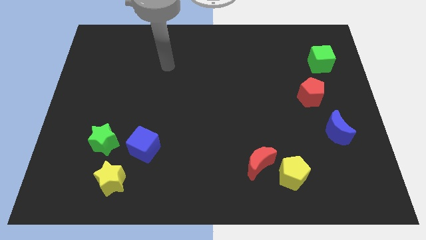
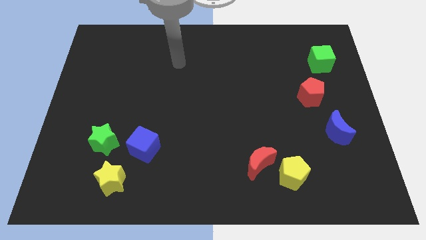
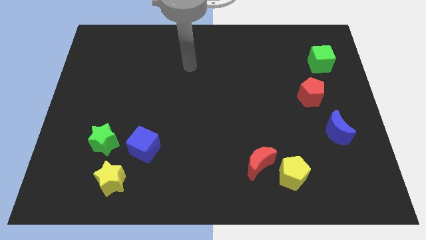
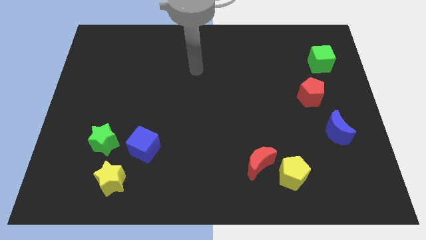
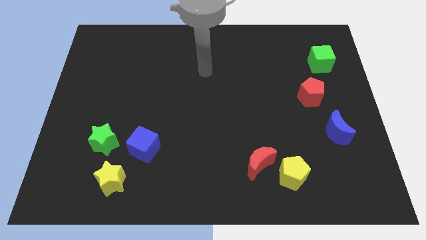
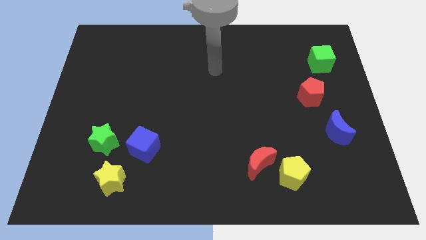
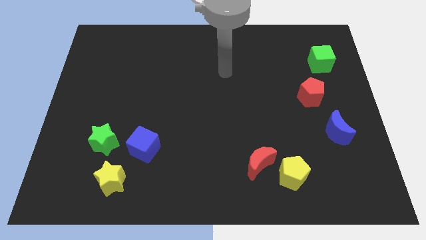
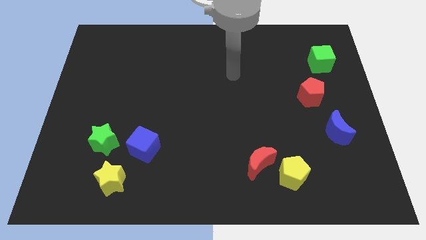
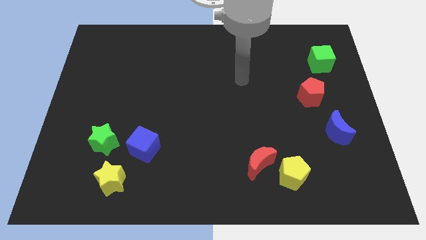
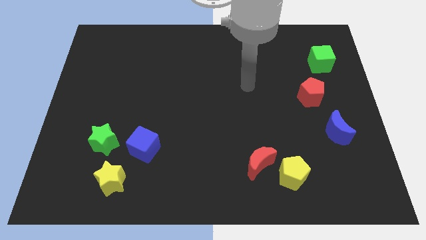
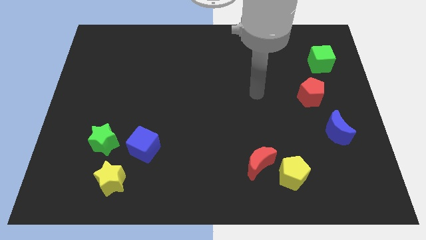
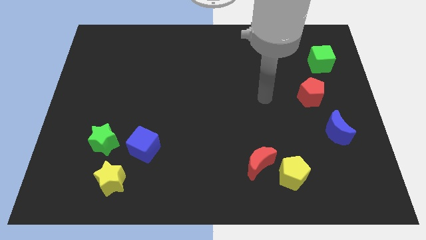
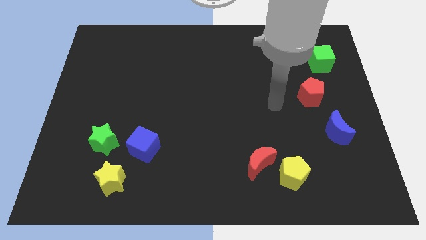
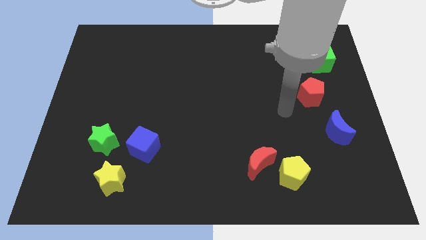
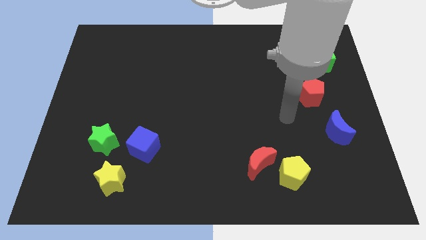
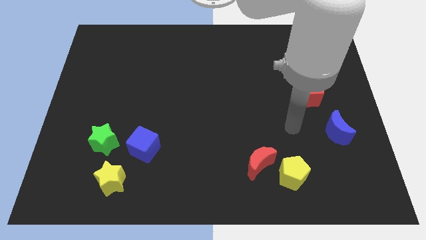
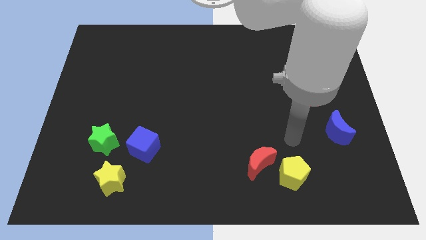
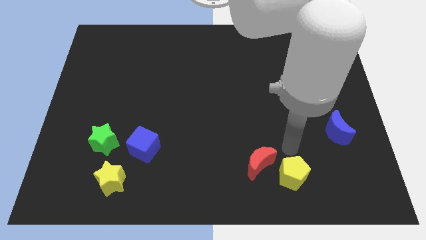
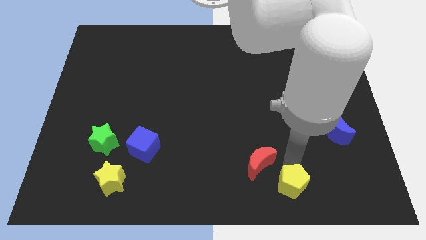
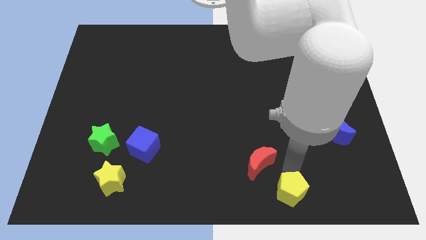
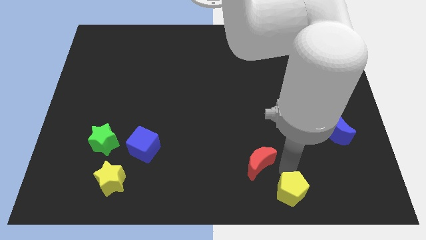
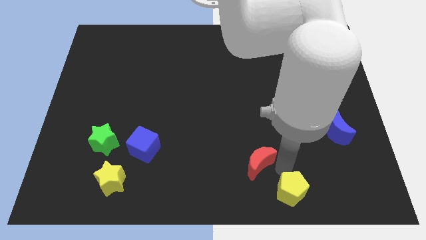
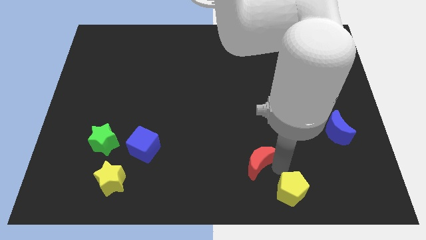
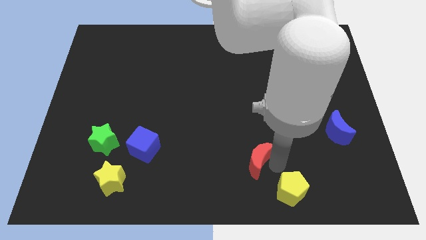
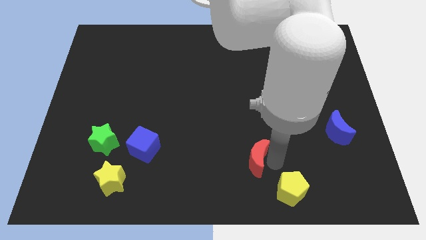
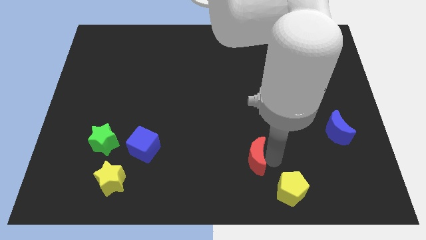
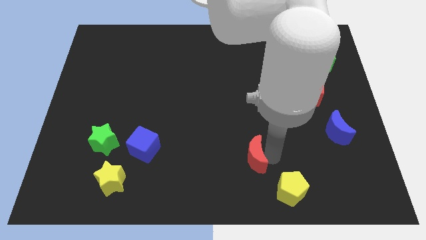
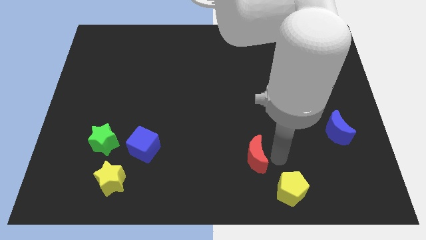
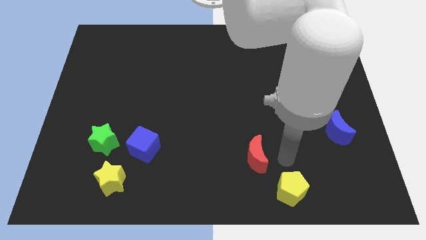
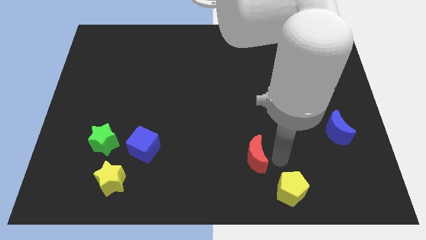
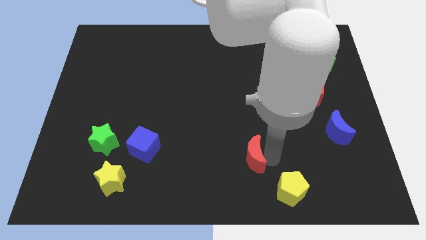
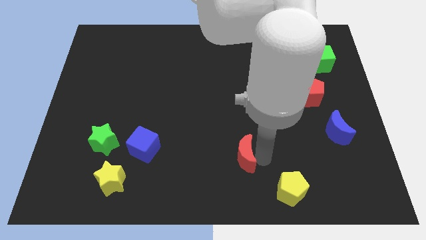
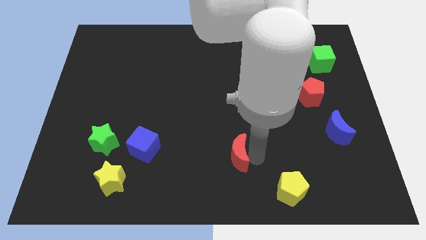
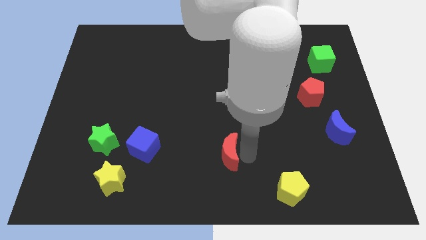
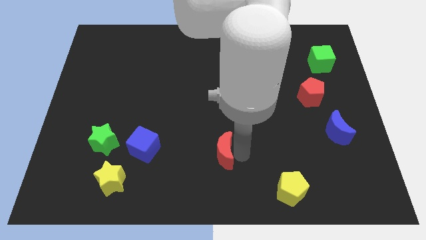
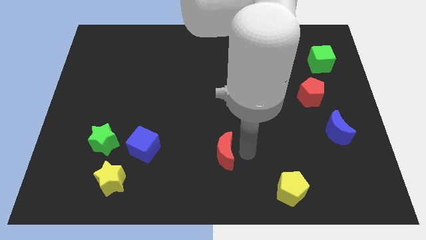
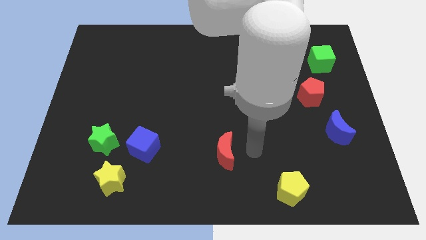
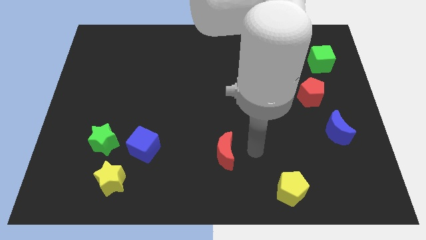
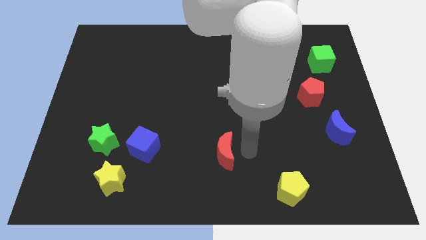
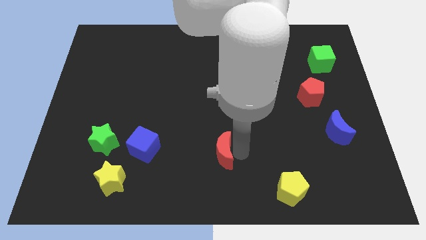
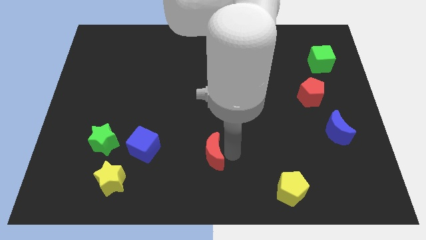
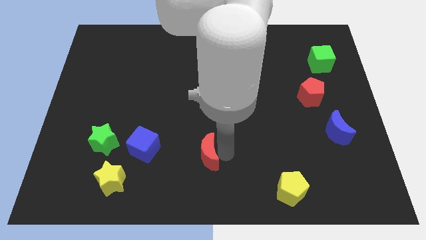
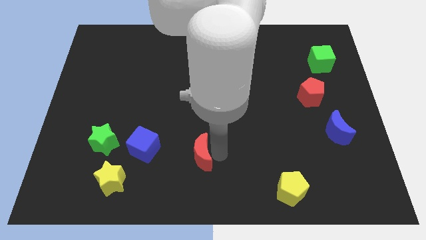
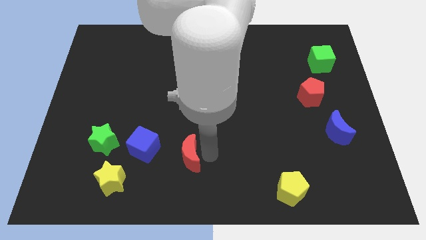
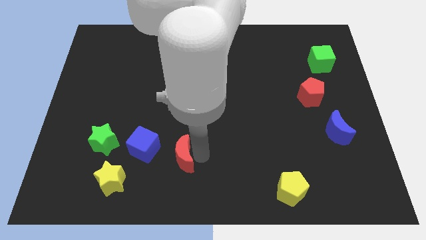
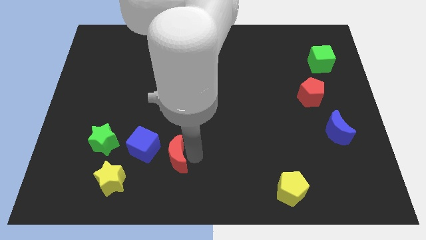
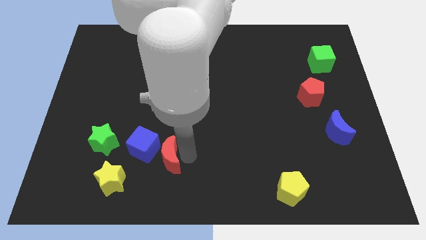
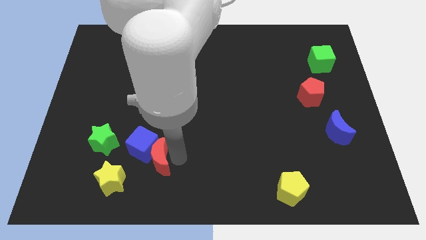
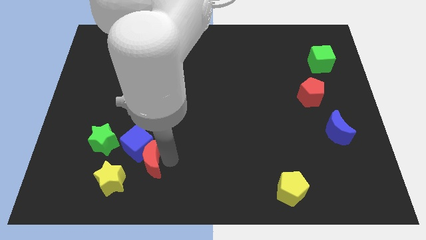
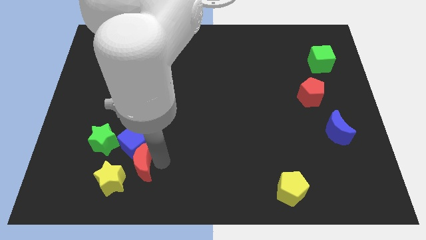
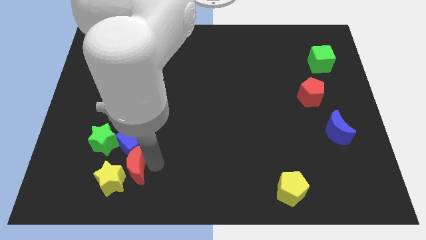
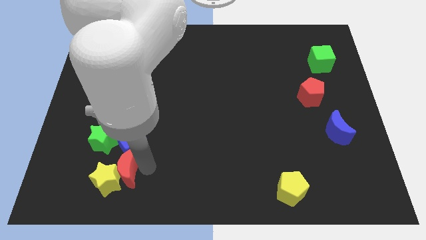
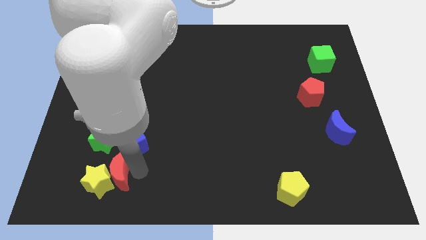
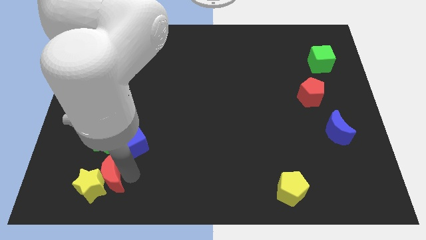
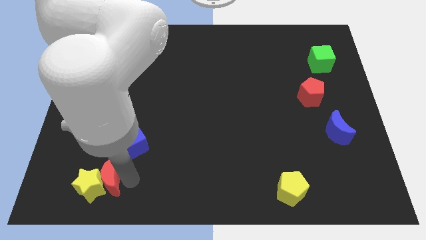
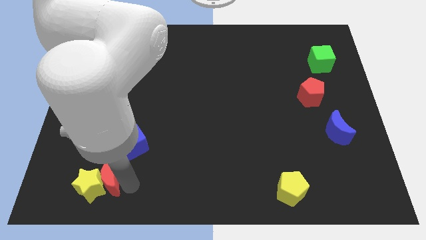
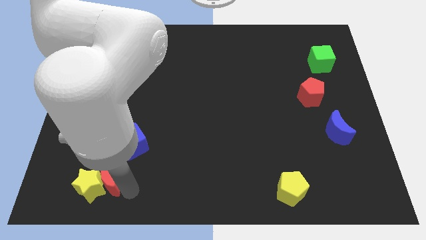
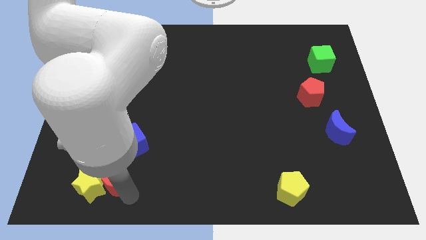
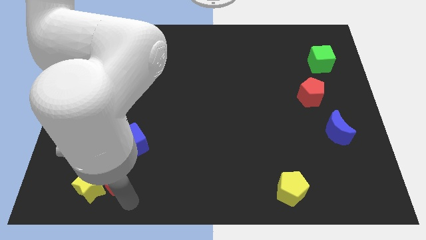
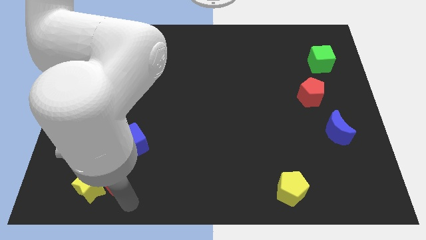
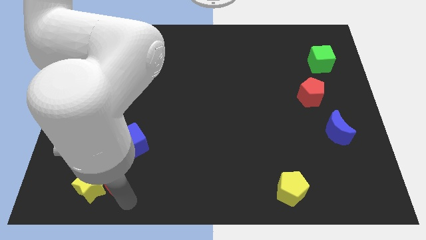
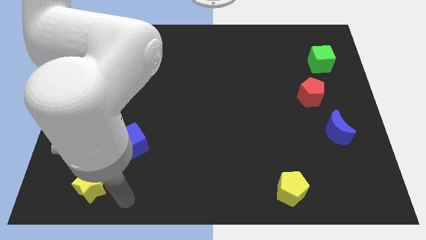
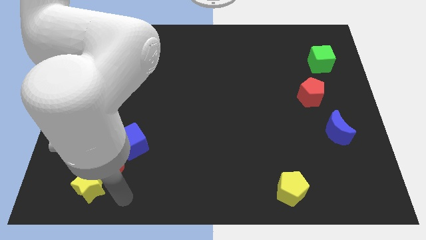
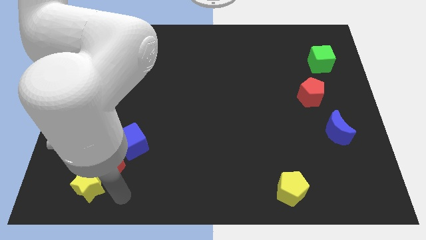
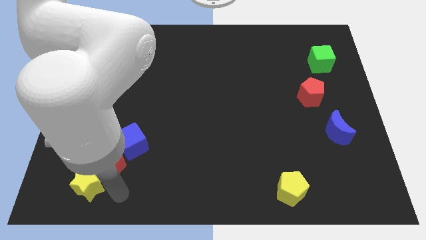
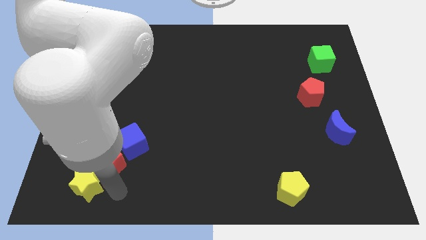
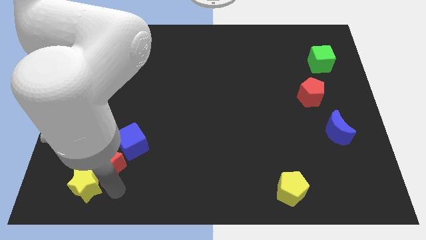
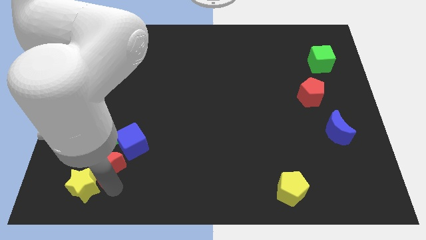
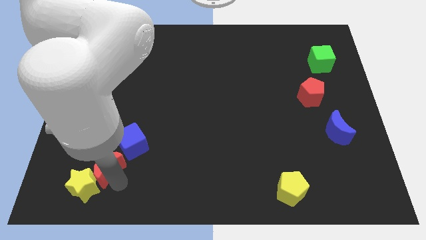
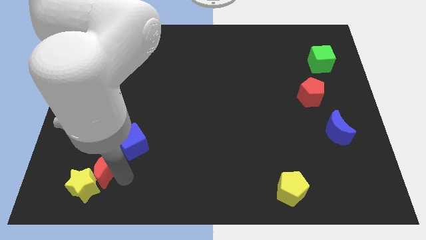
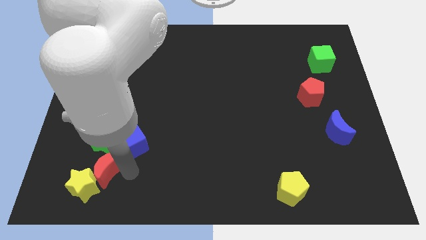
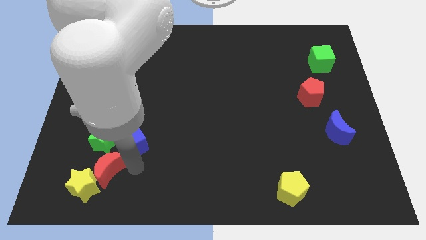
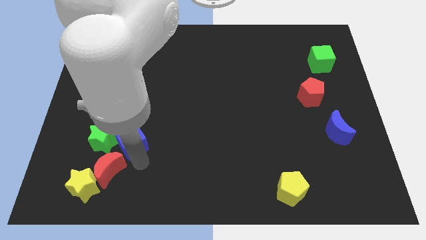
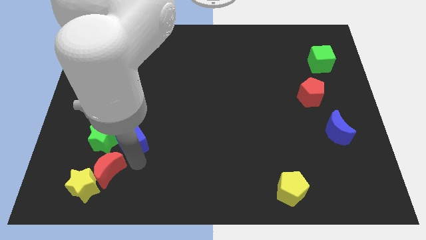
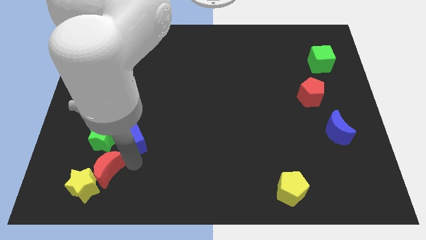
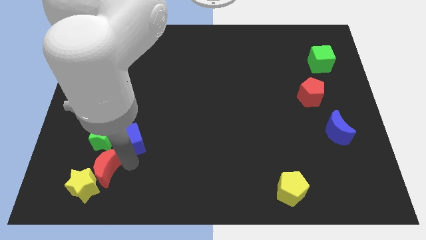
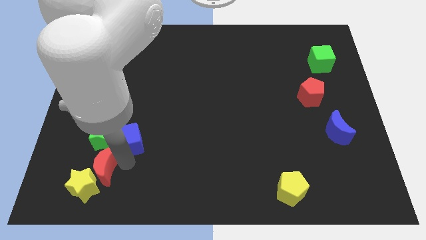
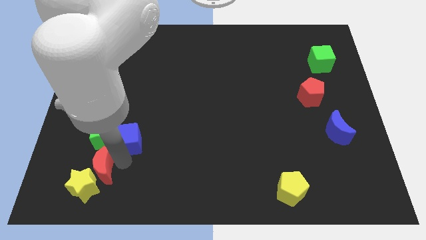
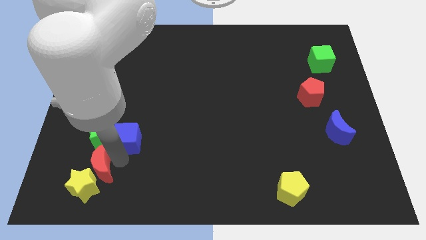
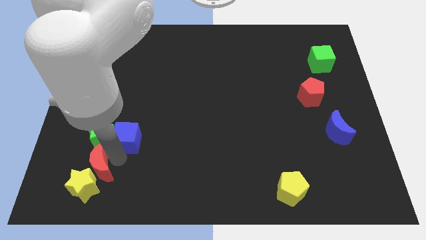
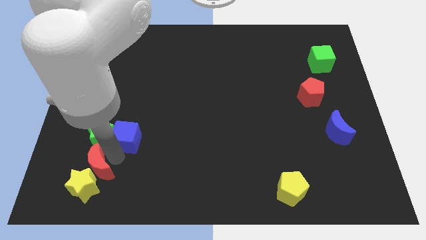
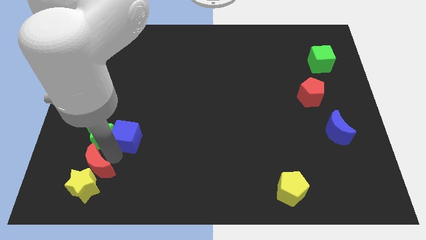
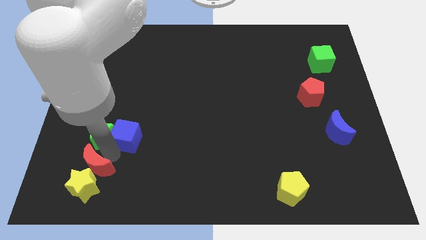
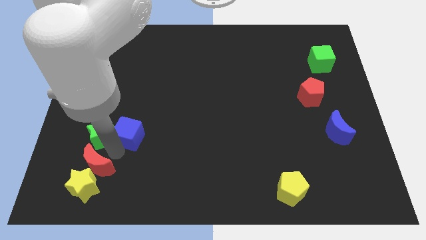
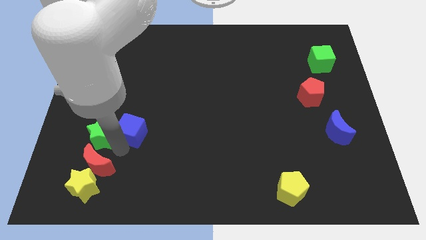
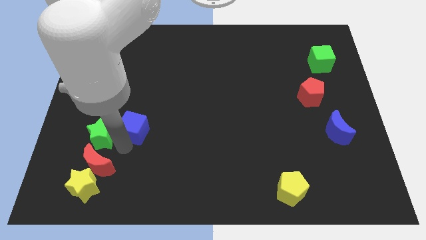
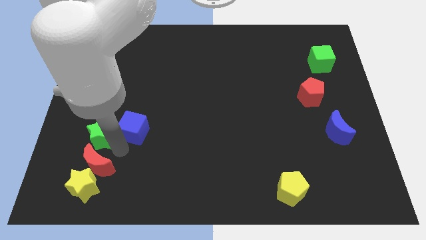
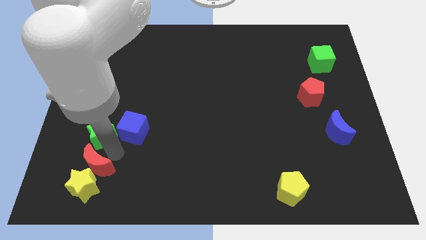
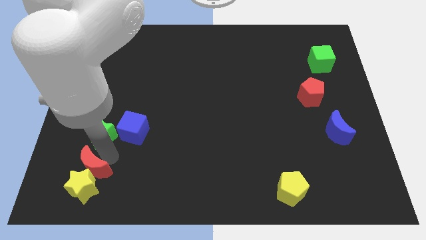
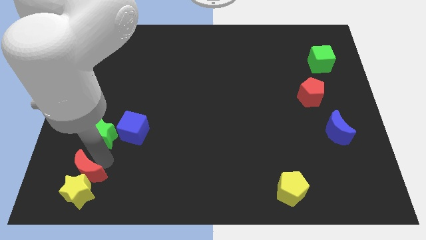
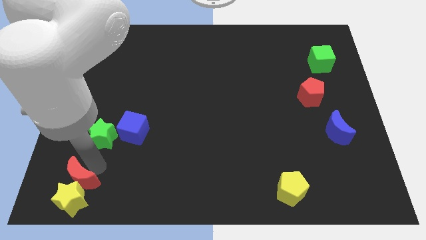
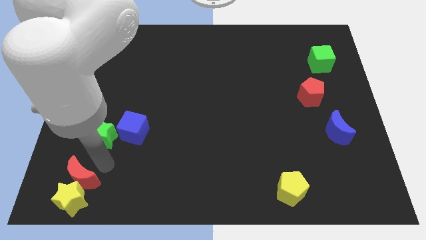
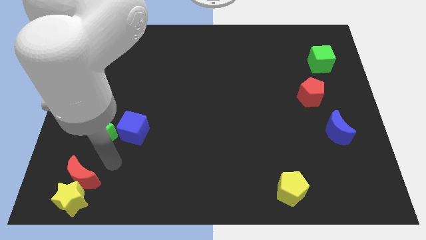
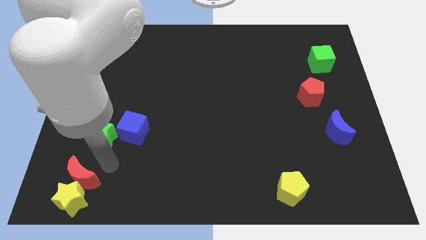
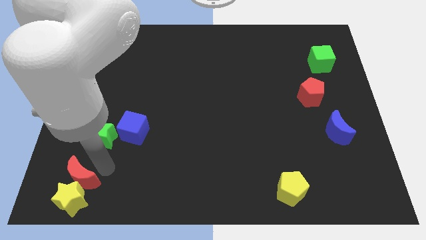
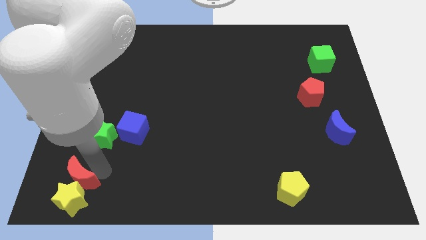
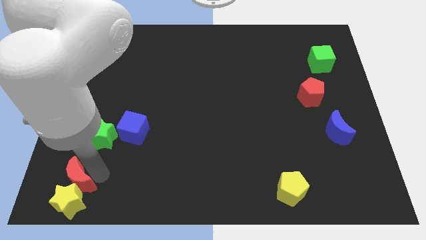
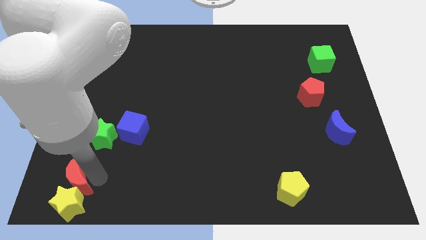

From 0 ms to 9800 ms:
put the red moon to the bottom left
